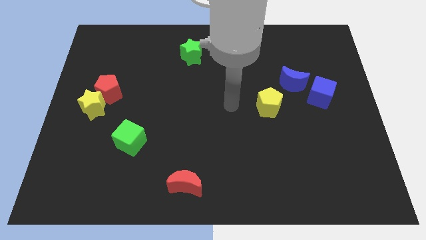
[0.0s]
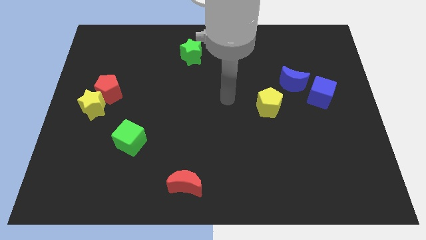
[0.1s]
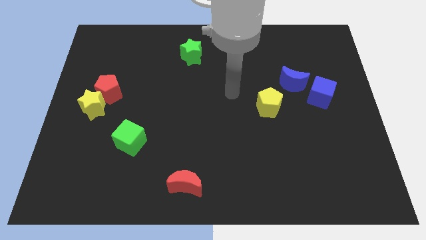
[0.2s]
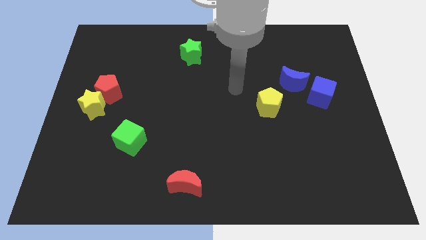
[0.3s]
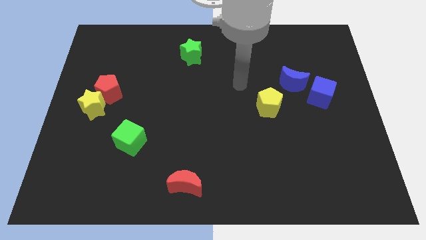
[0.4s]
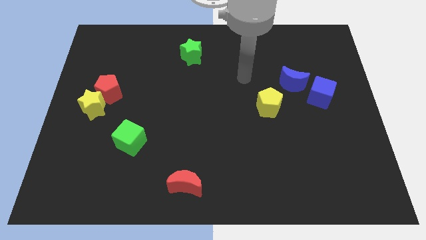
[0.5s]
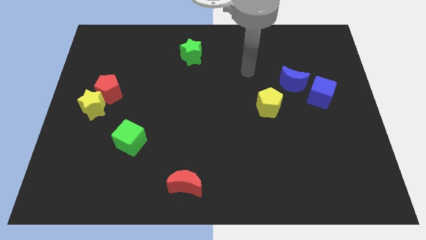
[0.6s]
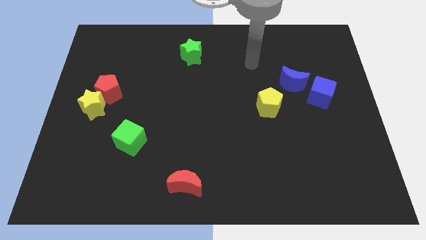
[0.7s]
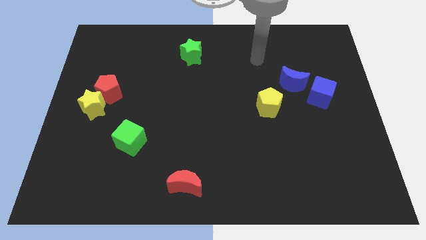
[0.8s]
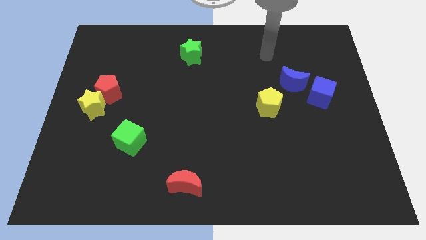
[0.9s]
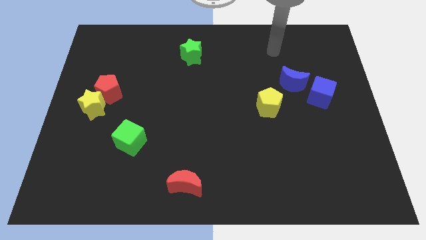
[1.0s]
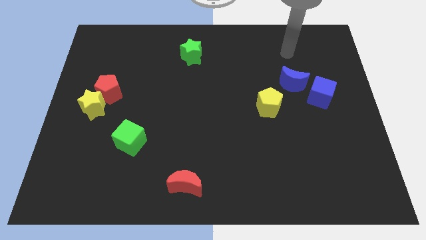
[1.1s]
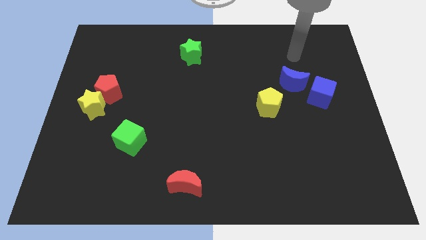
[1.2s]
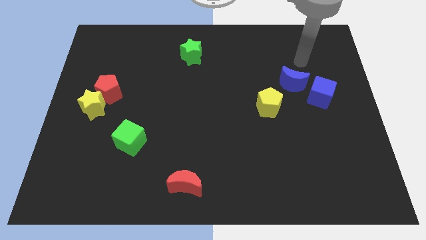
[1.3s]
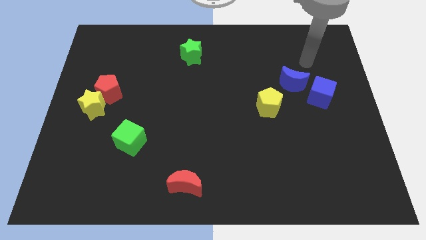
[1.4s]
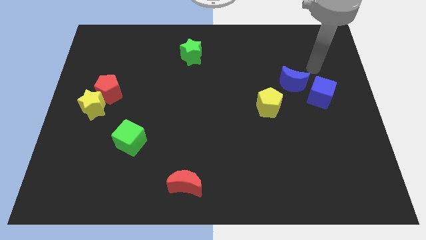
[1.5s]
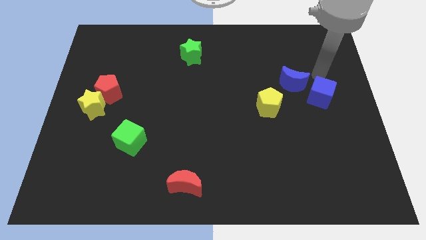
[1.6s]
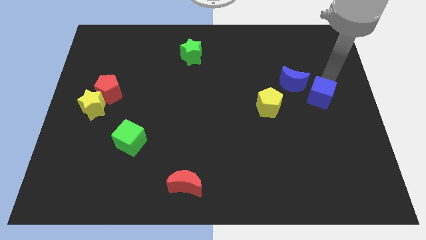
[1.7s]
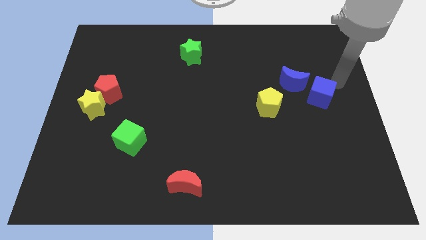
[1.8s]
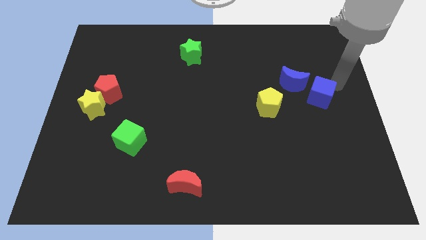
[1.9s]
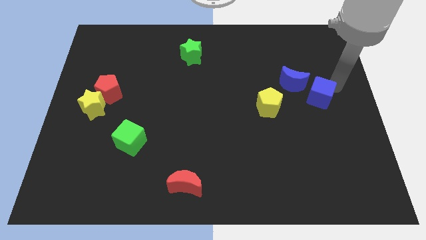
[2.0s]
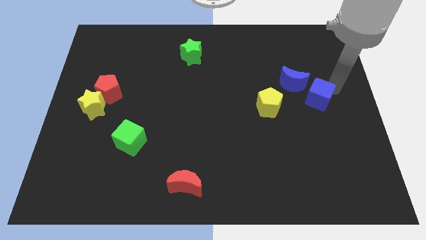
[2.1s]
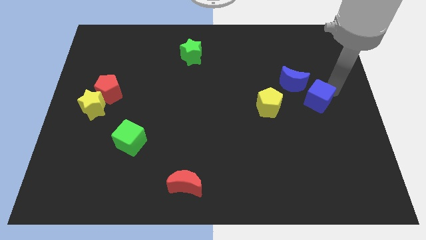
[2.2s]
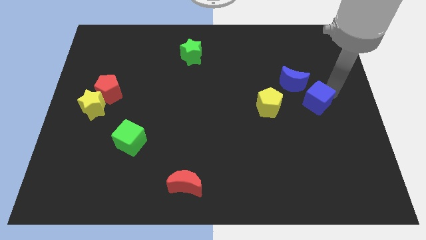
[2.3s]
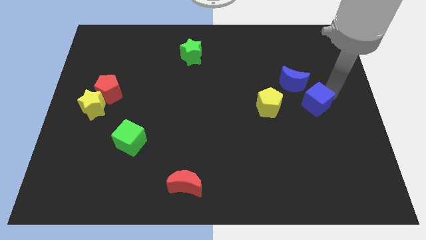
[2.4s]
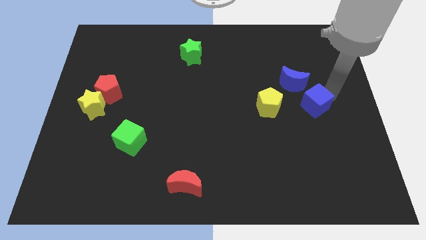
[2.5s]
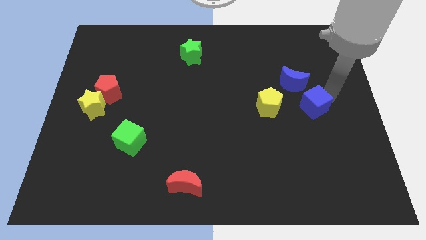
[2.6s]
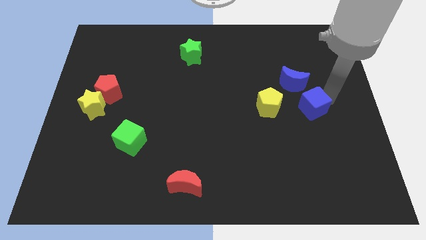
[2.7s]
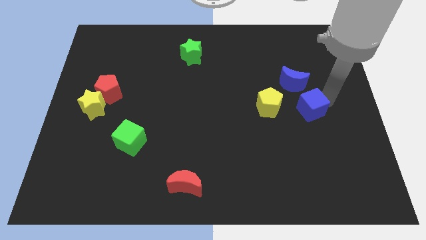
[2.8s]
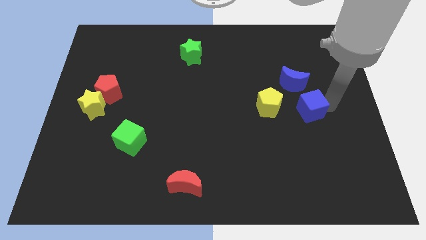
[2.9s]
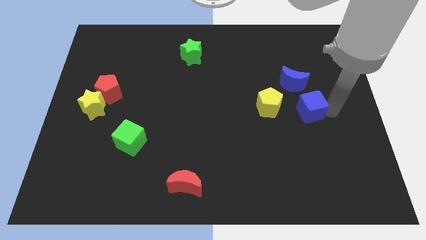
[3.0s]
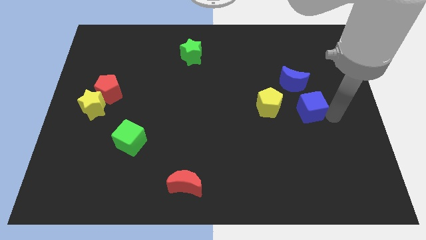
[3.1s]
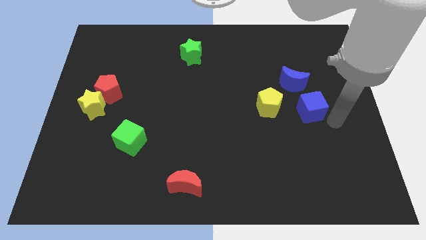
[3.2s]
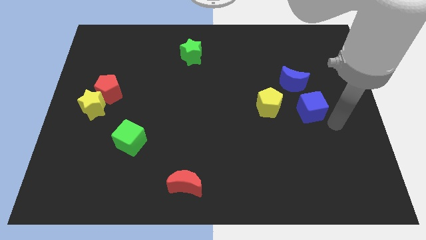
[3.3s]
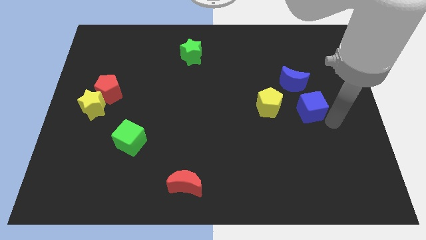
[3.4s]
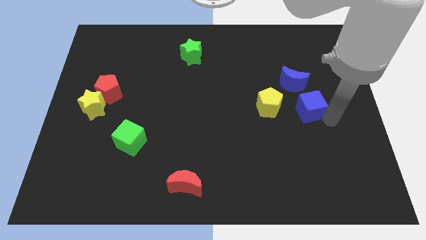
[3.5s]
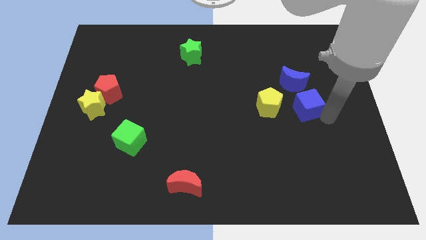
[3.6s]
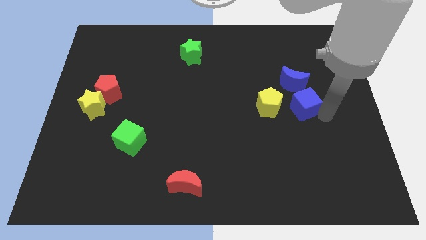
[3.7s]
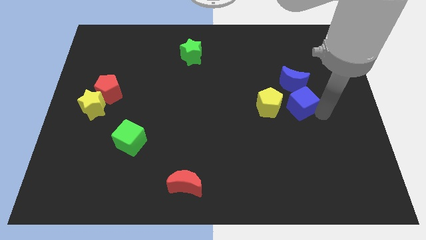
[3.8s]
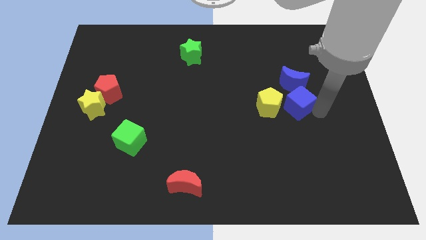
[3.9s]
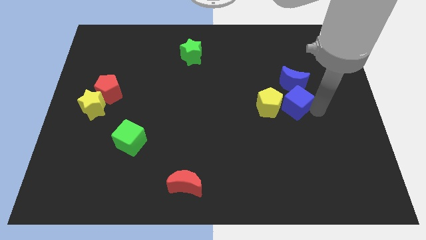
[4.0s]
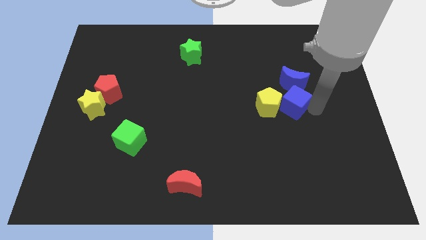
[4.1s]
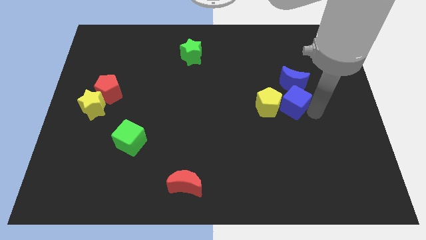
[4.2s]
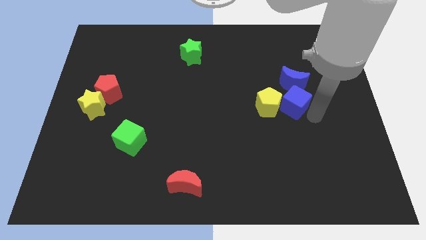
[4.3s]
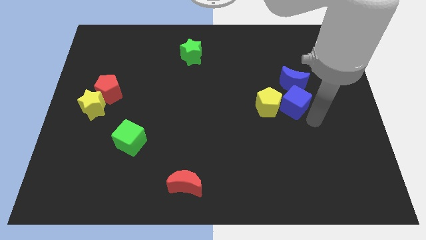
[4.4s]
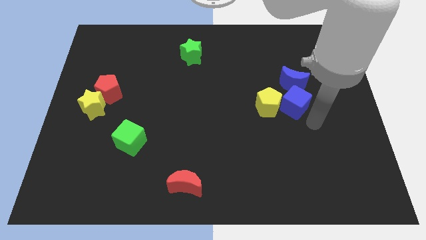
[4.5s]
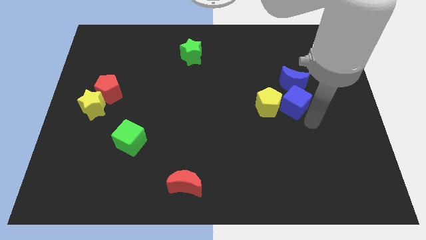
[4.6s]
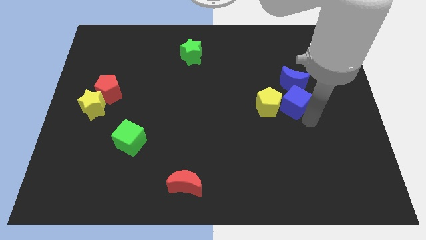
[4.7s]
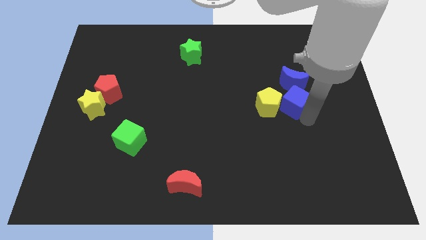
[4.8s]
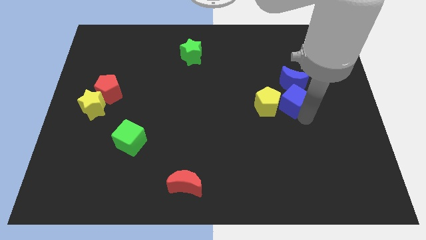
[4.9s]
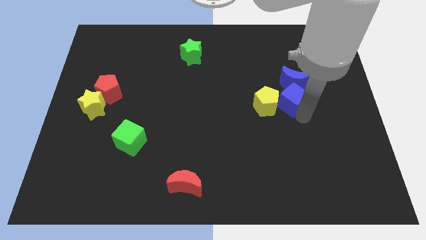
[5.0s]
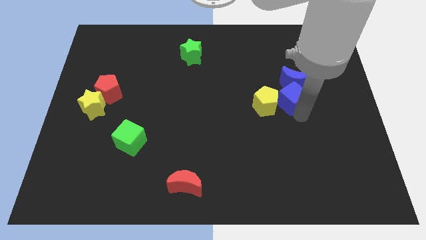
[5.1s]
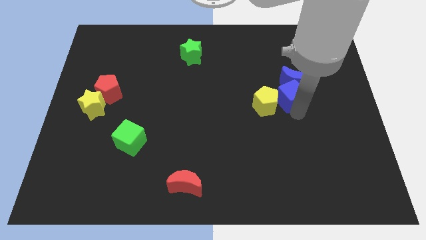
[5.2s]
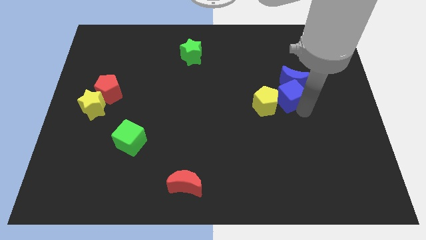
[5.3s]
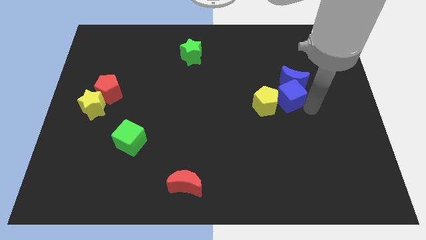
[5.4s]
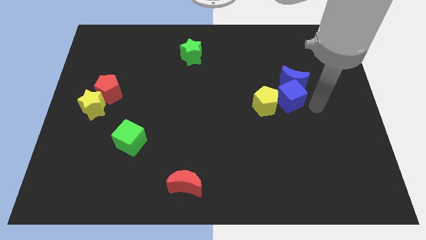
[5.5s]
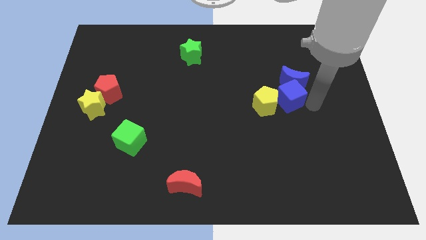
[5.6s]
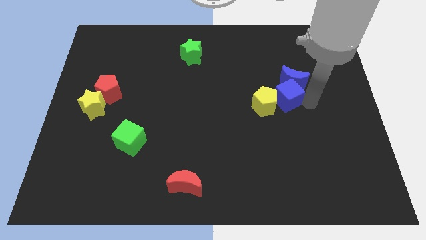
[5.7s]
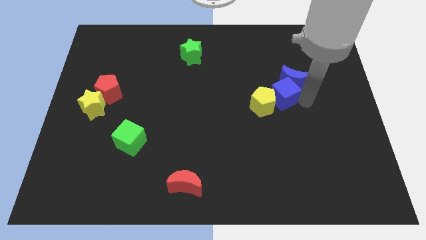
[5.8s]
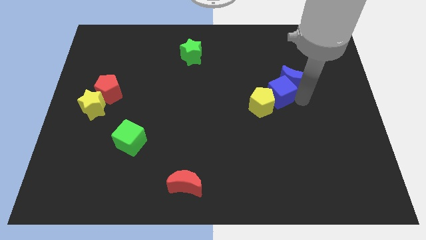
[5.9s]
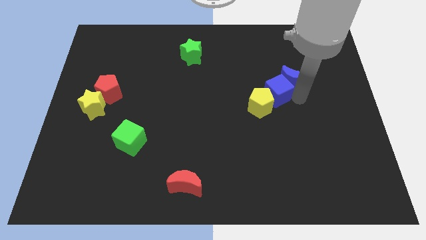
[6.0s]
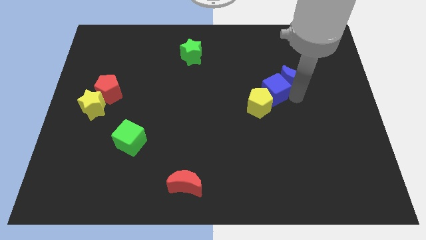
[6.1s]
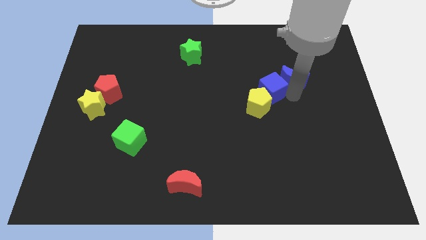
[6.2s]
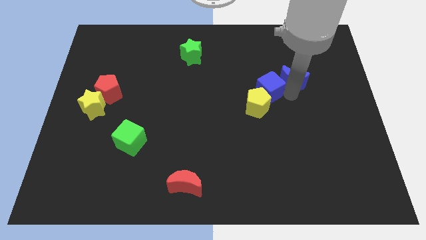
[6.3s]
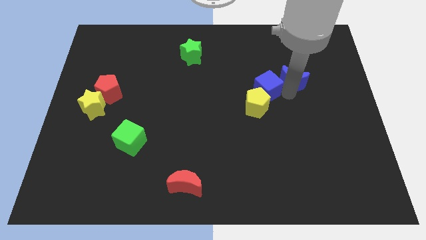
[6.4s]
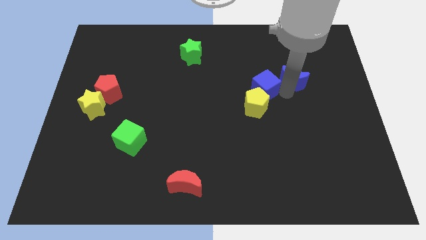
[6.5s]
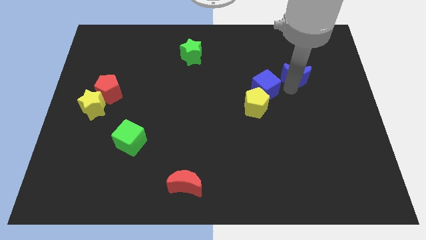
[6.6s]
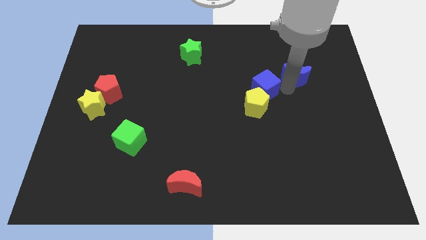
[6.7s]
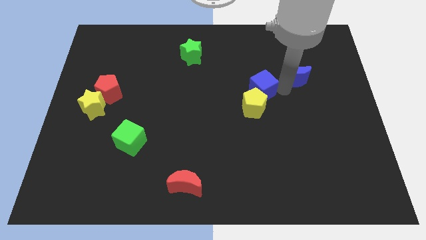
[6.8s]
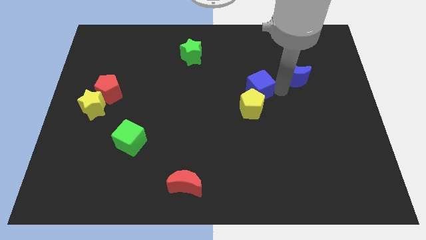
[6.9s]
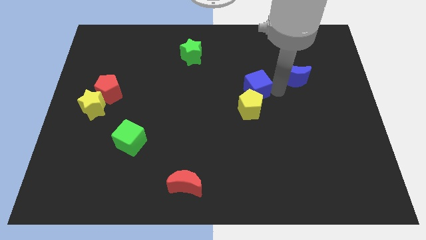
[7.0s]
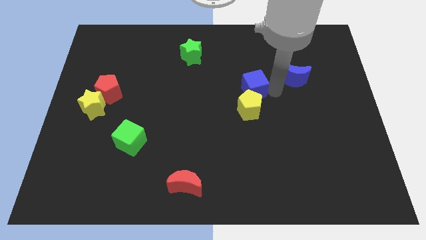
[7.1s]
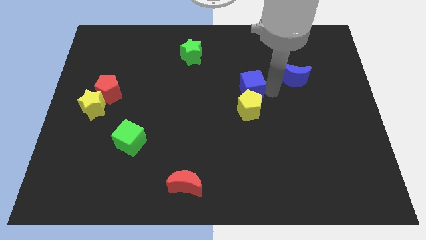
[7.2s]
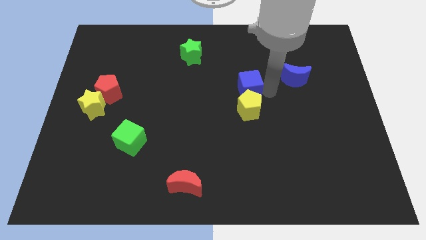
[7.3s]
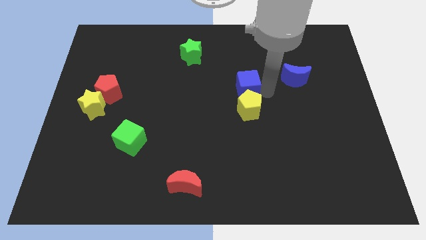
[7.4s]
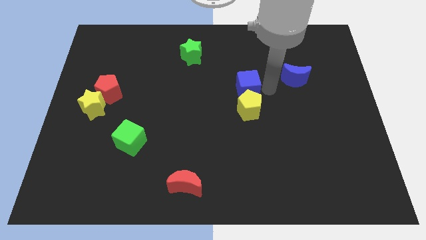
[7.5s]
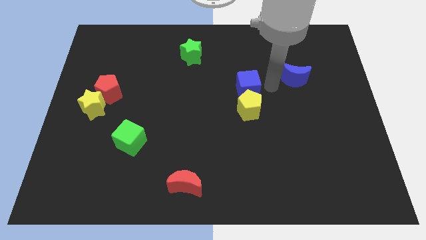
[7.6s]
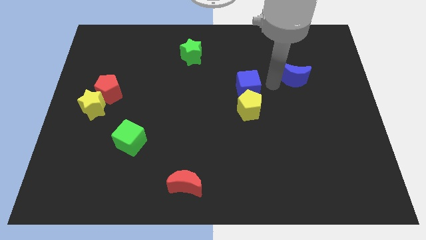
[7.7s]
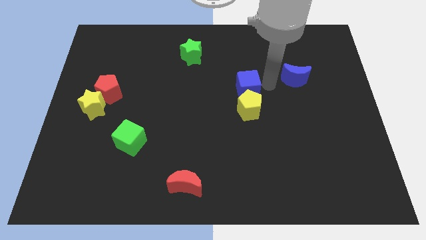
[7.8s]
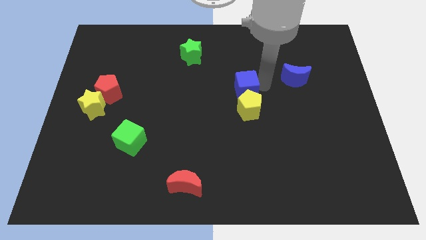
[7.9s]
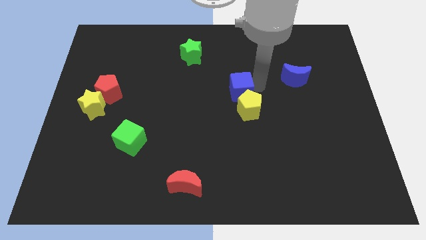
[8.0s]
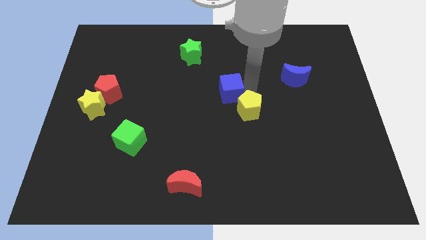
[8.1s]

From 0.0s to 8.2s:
push the blue cube to the left
